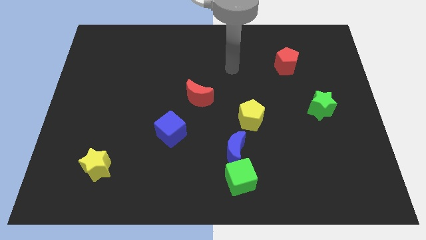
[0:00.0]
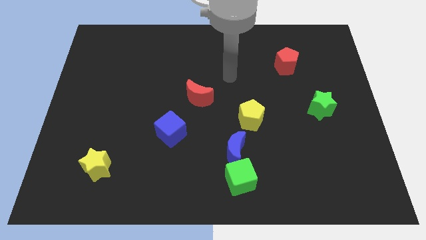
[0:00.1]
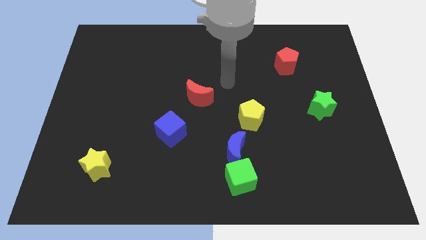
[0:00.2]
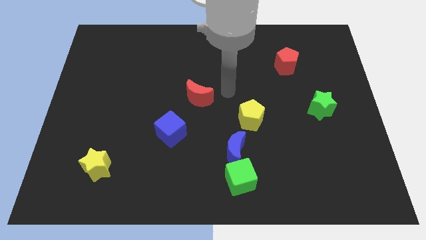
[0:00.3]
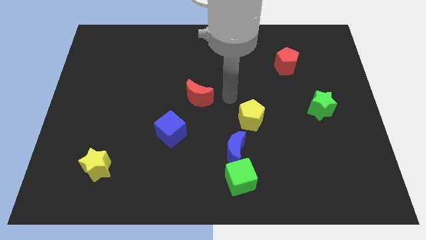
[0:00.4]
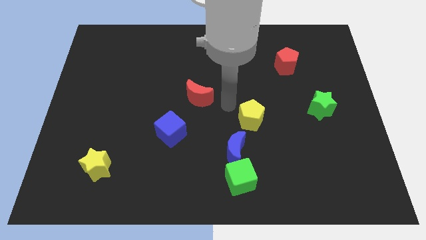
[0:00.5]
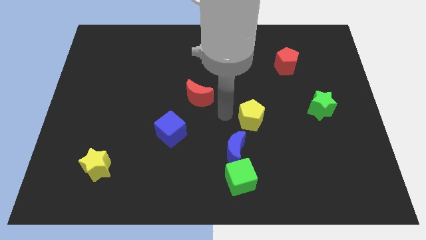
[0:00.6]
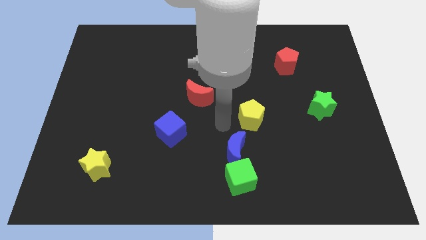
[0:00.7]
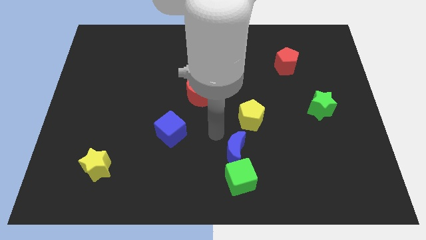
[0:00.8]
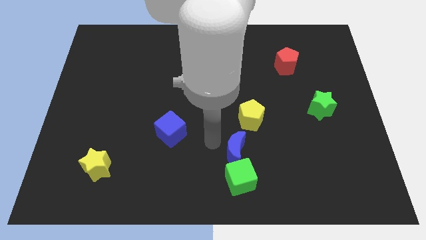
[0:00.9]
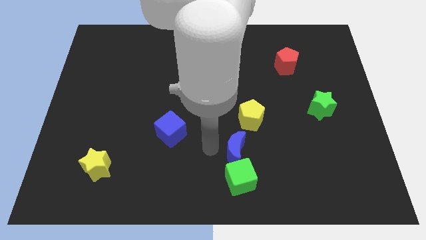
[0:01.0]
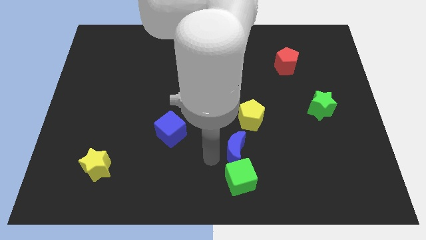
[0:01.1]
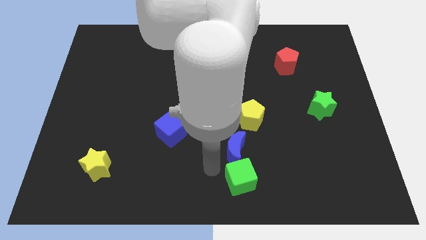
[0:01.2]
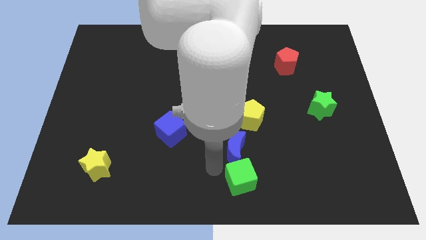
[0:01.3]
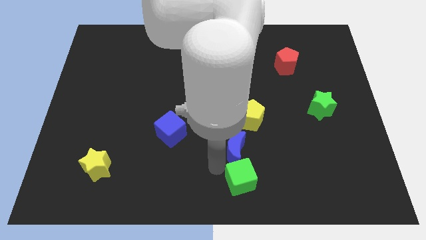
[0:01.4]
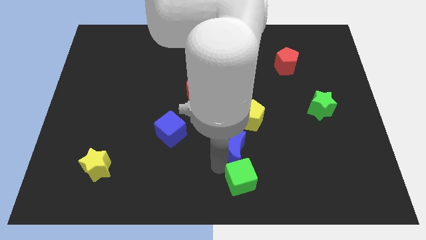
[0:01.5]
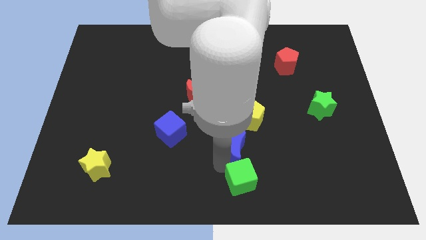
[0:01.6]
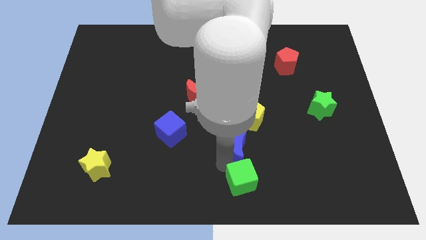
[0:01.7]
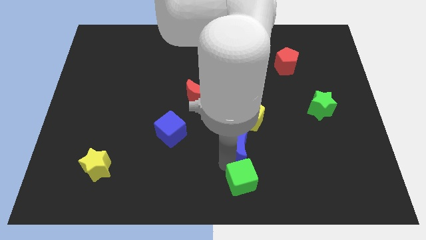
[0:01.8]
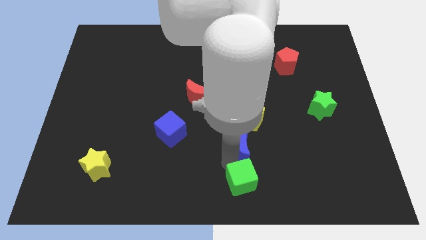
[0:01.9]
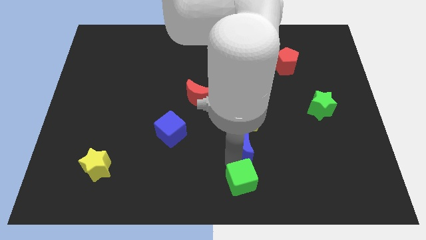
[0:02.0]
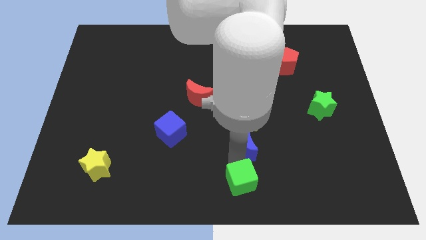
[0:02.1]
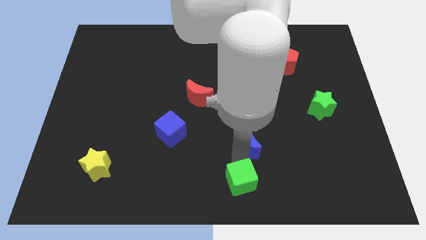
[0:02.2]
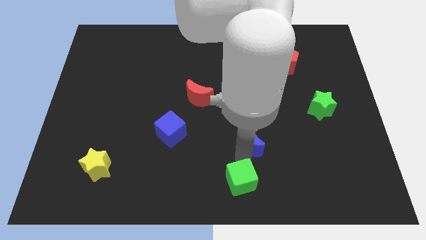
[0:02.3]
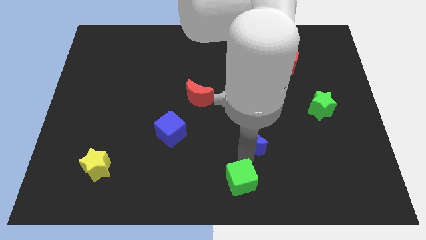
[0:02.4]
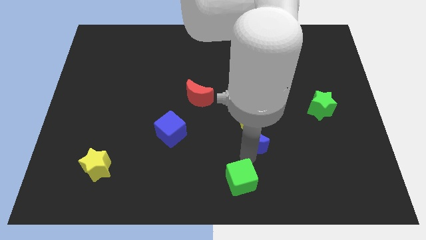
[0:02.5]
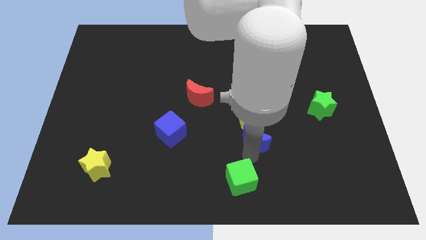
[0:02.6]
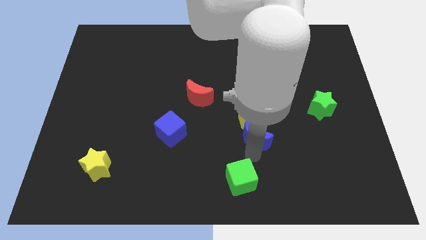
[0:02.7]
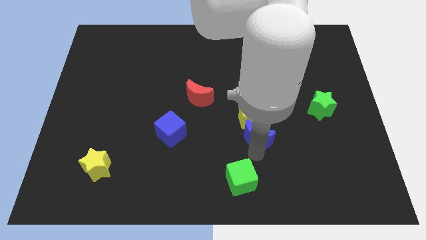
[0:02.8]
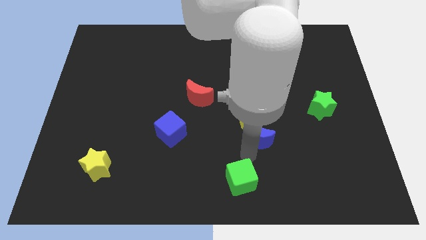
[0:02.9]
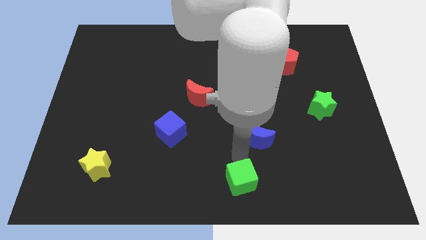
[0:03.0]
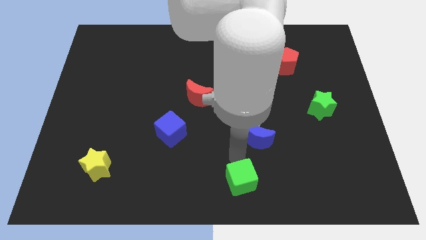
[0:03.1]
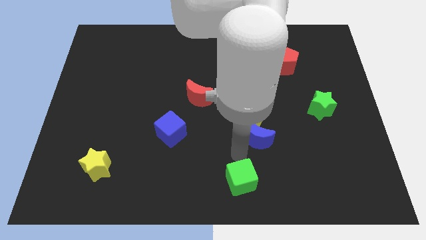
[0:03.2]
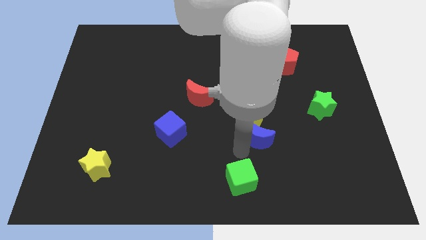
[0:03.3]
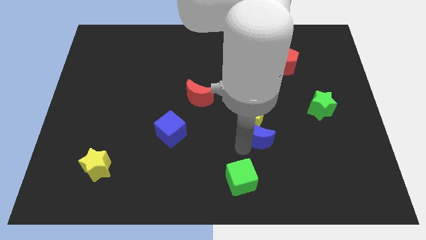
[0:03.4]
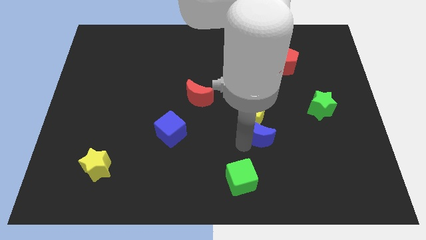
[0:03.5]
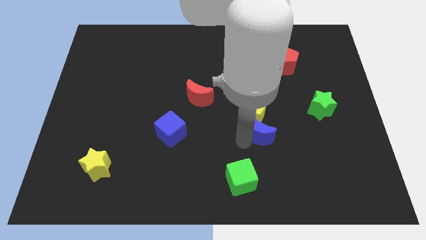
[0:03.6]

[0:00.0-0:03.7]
push the blue moon a little up and to the right diagonally

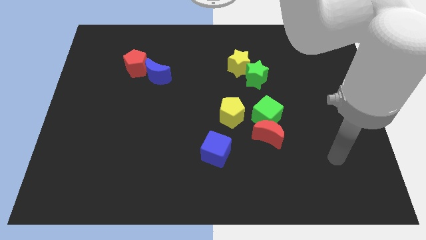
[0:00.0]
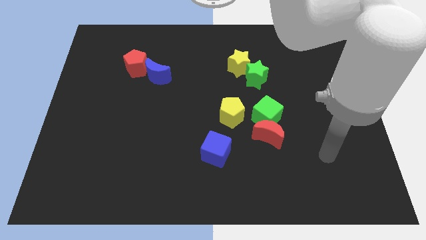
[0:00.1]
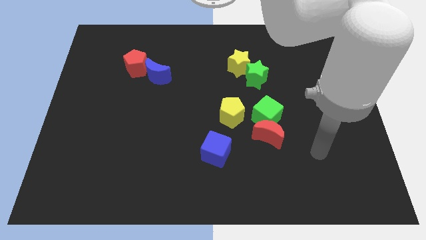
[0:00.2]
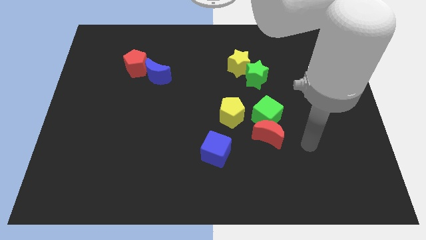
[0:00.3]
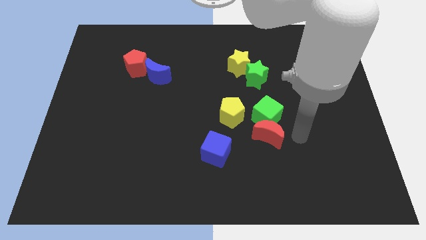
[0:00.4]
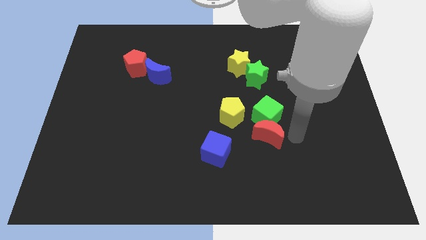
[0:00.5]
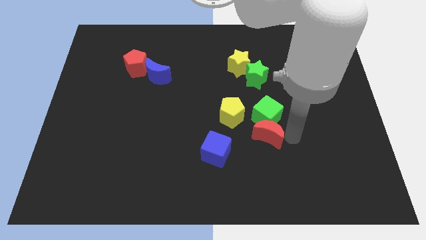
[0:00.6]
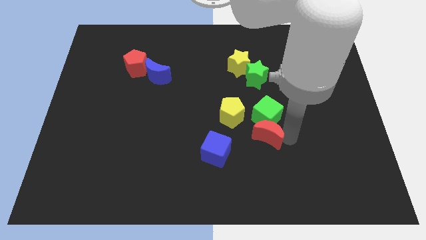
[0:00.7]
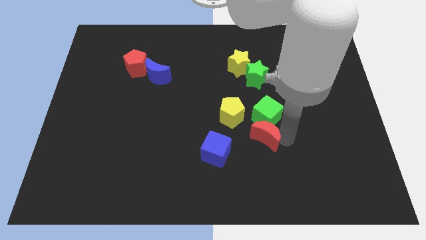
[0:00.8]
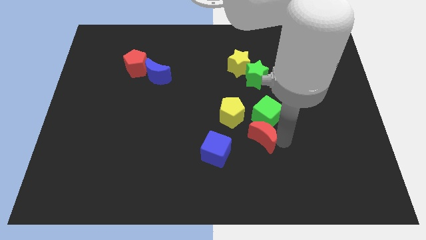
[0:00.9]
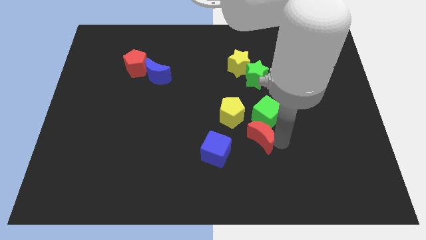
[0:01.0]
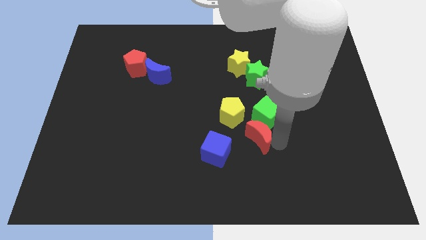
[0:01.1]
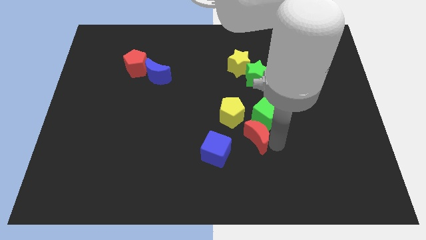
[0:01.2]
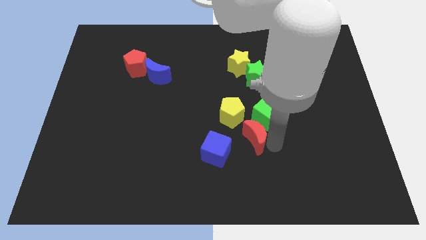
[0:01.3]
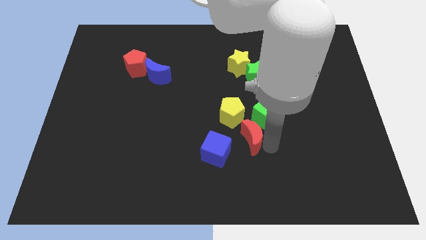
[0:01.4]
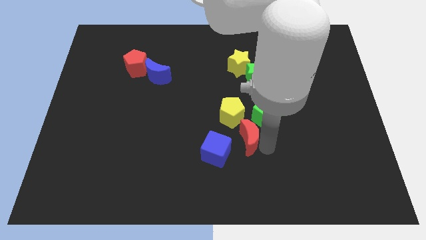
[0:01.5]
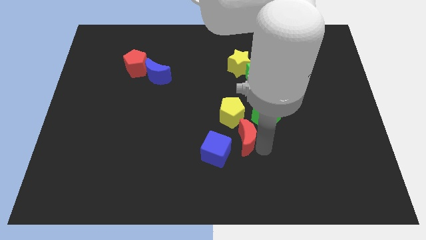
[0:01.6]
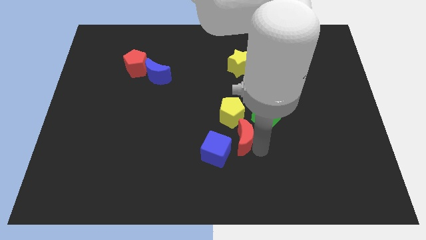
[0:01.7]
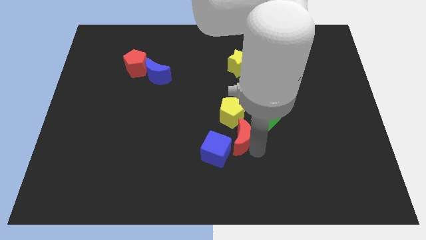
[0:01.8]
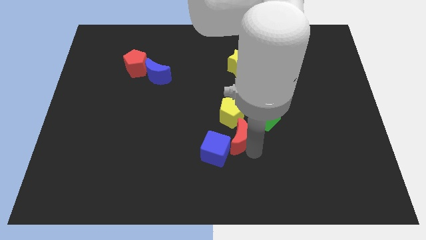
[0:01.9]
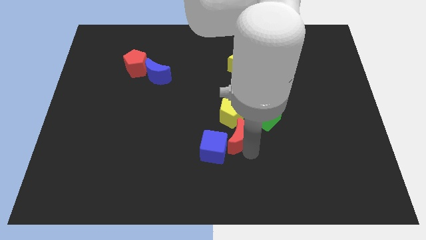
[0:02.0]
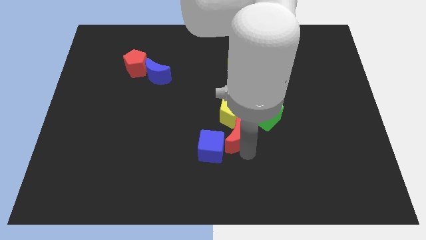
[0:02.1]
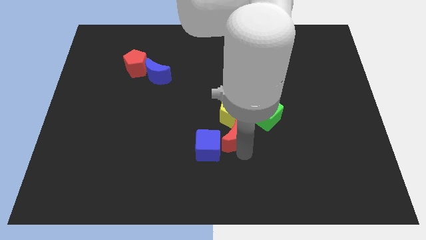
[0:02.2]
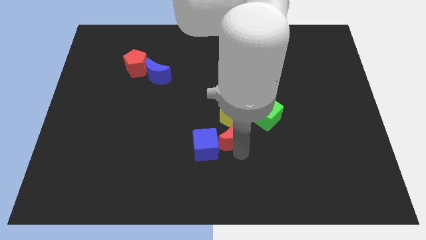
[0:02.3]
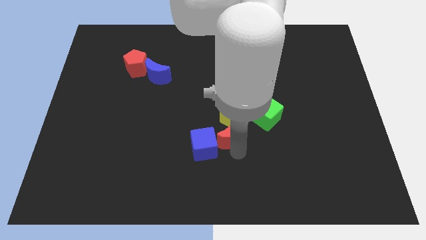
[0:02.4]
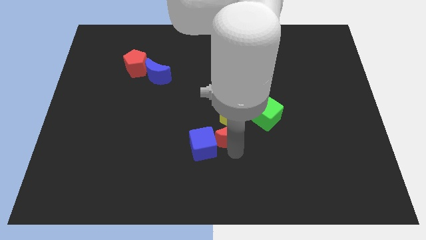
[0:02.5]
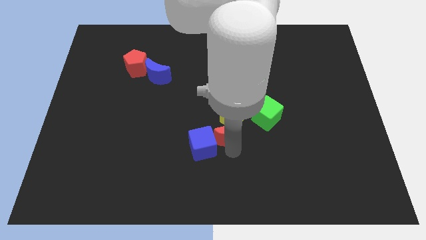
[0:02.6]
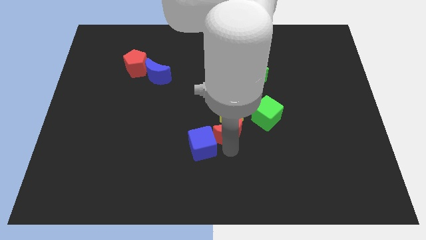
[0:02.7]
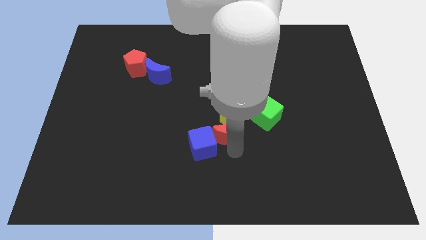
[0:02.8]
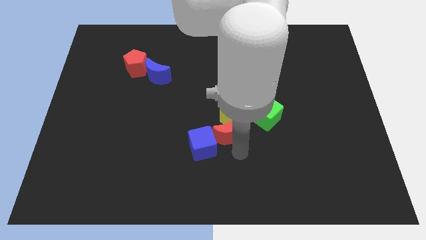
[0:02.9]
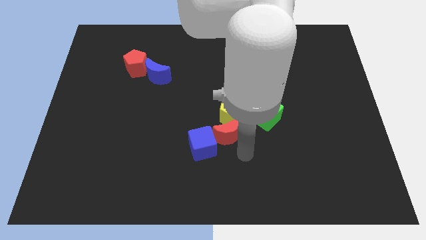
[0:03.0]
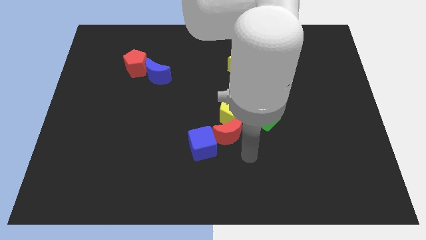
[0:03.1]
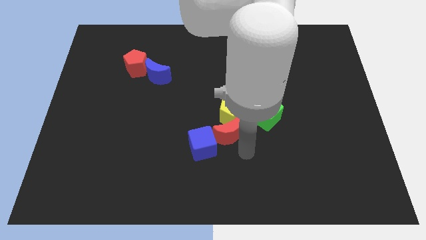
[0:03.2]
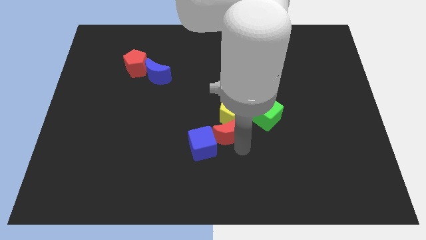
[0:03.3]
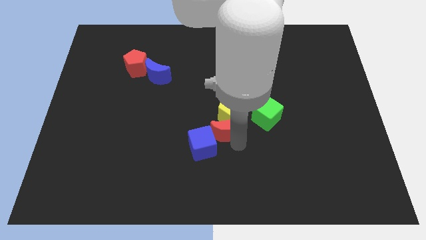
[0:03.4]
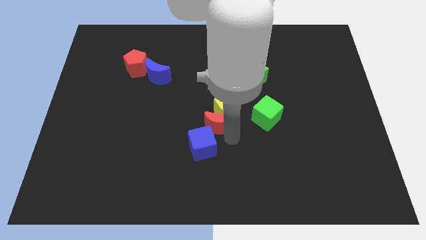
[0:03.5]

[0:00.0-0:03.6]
slide the red moon somewhat diagonally up and to the left

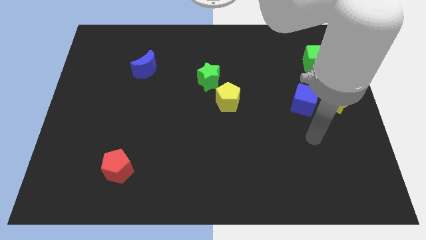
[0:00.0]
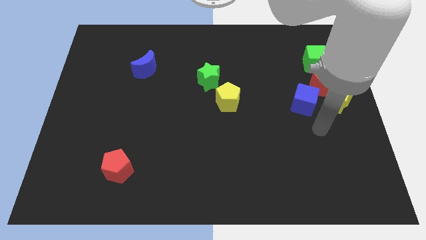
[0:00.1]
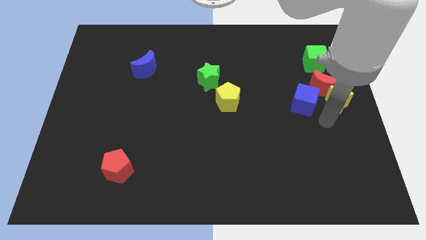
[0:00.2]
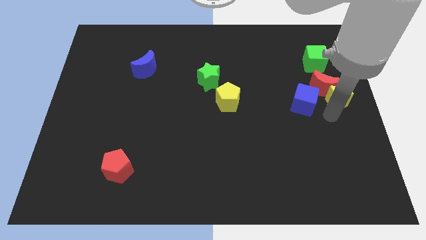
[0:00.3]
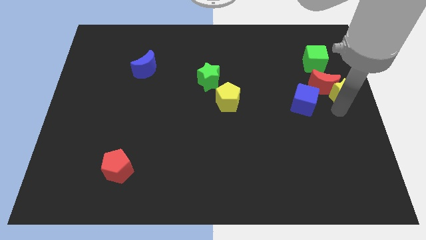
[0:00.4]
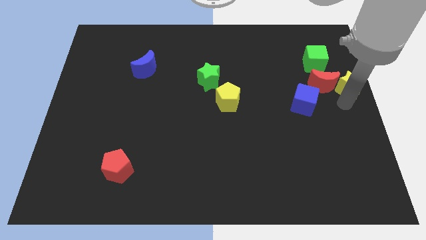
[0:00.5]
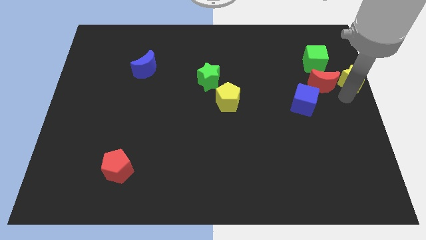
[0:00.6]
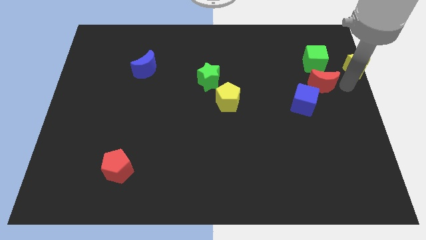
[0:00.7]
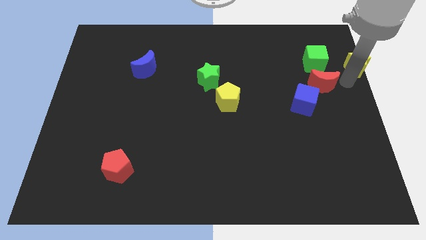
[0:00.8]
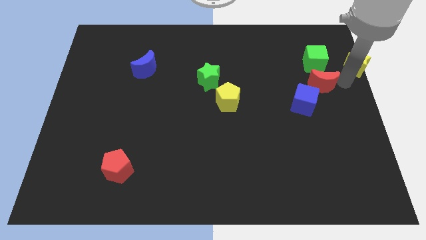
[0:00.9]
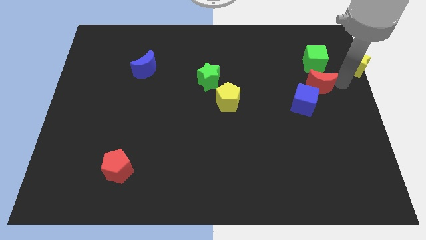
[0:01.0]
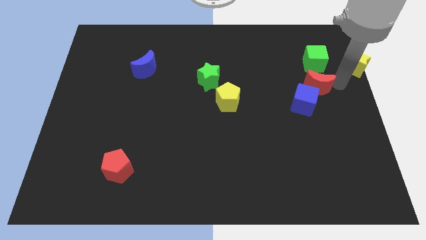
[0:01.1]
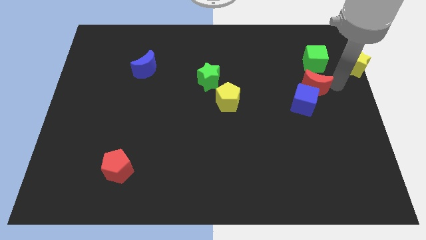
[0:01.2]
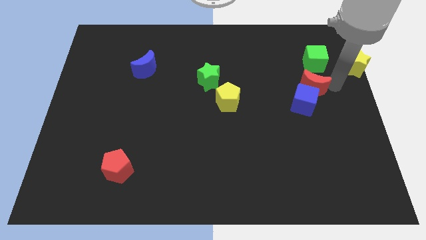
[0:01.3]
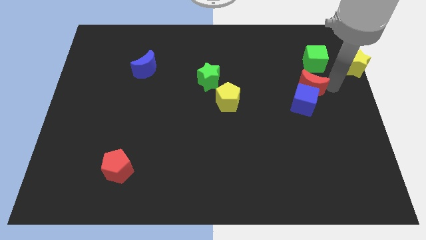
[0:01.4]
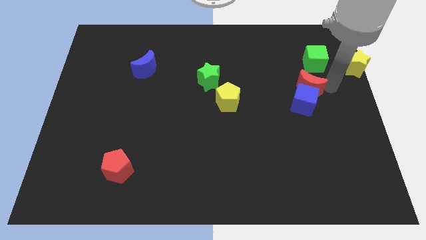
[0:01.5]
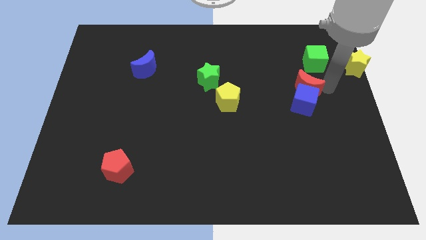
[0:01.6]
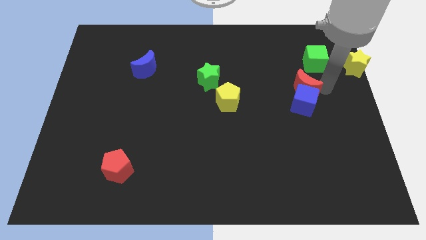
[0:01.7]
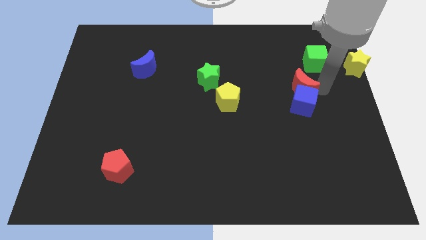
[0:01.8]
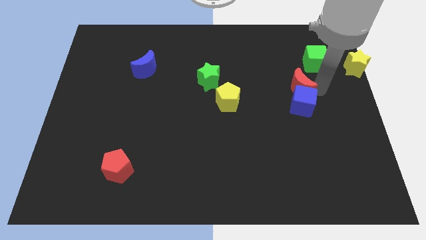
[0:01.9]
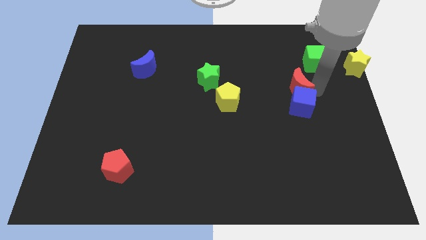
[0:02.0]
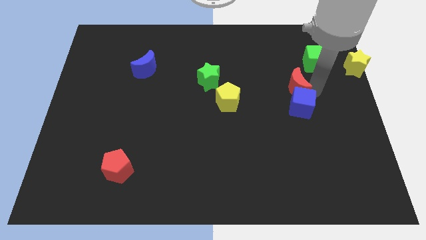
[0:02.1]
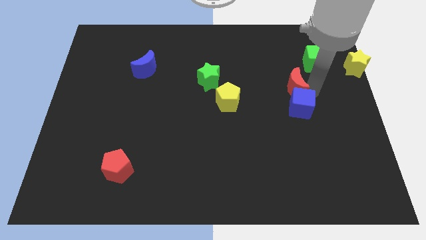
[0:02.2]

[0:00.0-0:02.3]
slide the red moon to the left a bit
